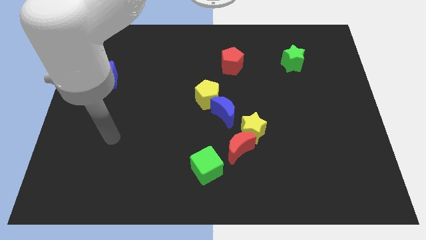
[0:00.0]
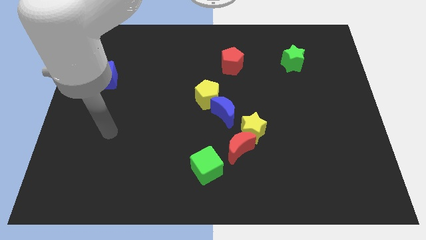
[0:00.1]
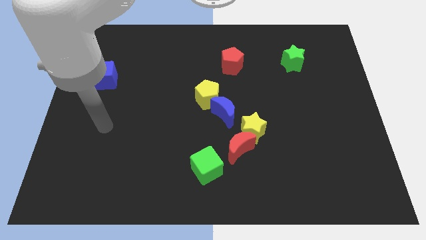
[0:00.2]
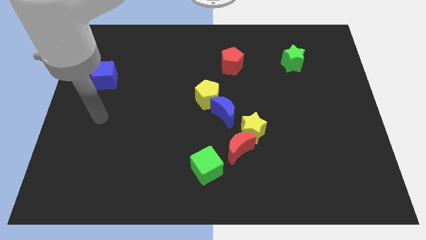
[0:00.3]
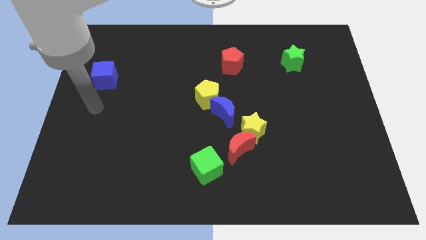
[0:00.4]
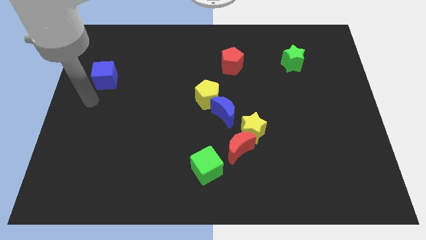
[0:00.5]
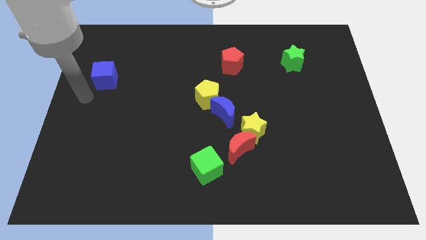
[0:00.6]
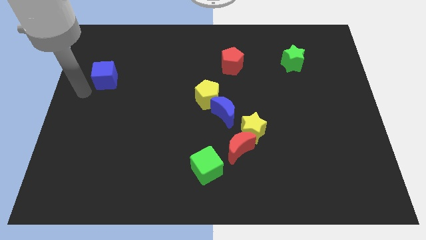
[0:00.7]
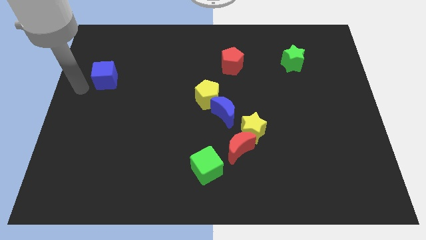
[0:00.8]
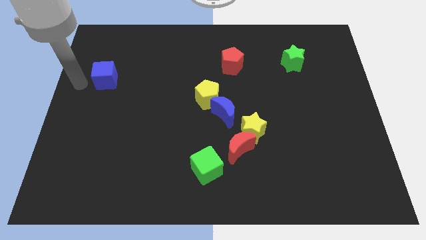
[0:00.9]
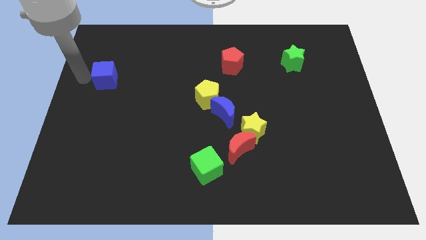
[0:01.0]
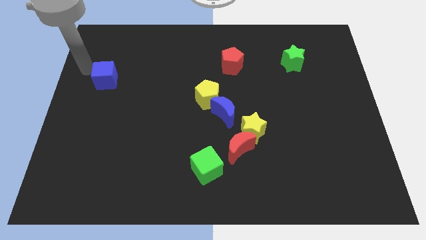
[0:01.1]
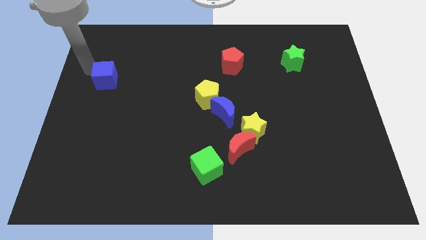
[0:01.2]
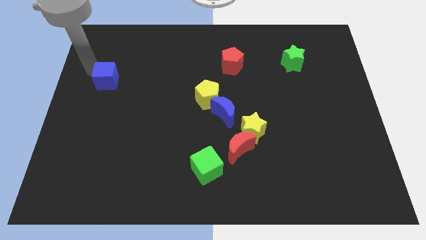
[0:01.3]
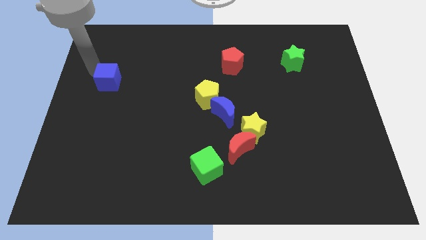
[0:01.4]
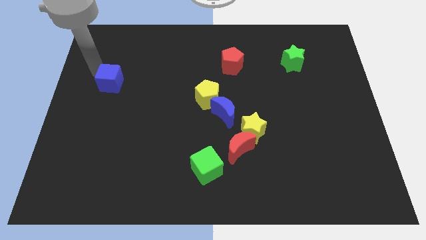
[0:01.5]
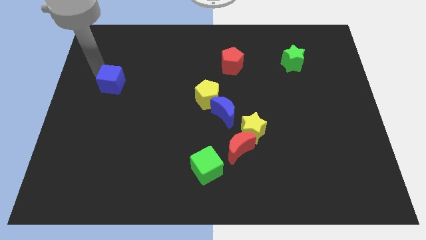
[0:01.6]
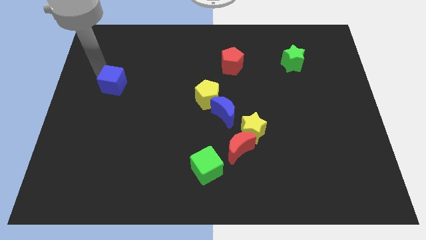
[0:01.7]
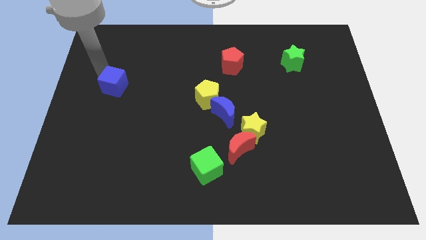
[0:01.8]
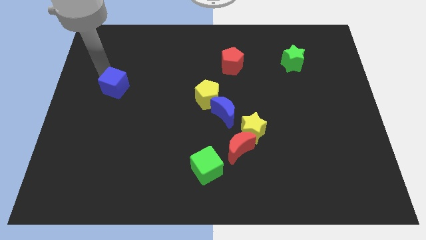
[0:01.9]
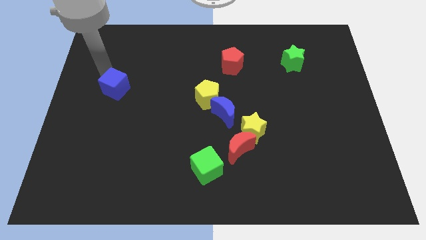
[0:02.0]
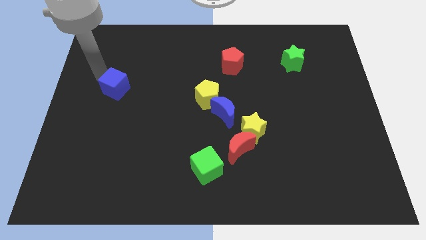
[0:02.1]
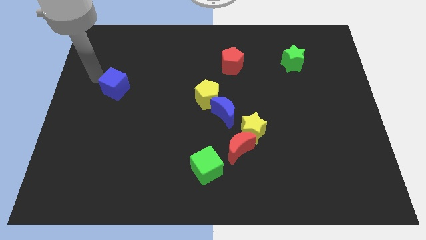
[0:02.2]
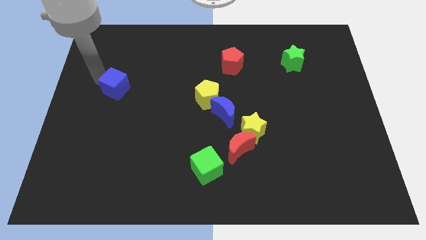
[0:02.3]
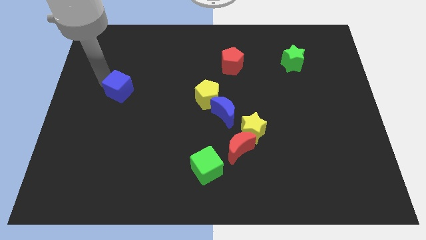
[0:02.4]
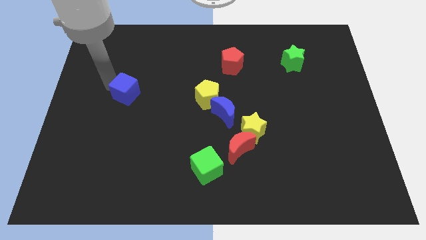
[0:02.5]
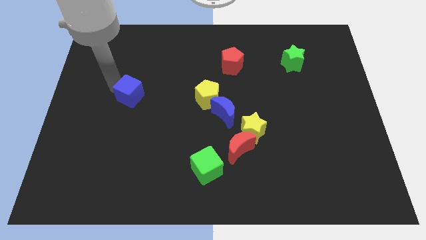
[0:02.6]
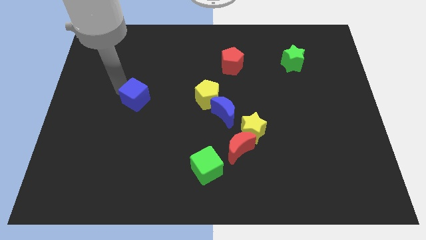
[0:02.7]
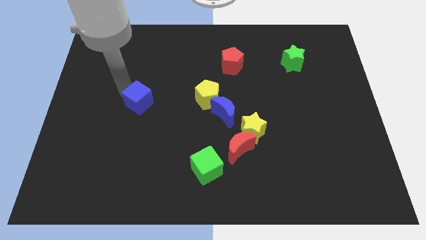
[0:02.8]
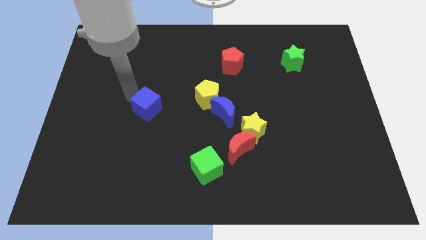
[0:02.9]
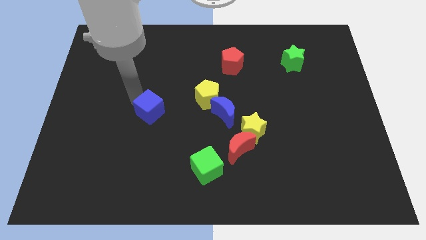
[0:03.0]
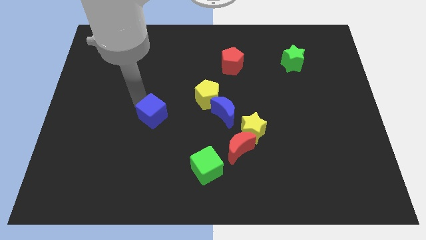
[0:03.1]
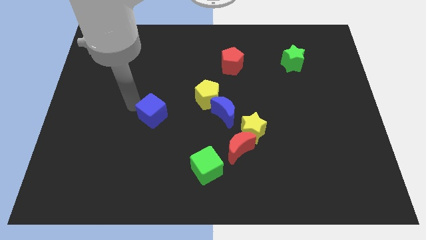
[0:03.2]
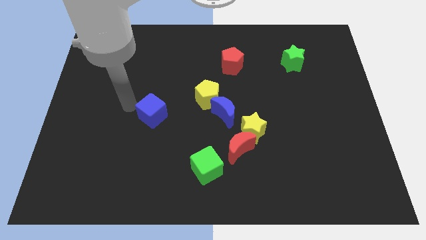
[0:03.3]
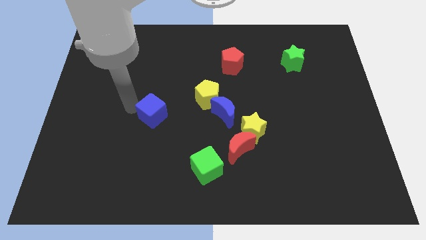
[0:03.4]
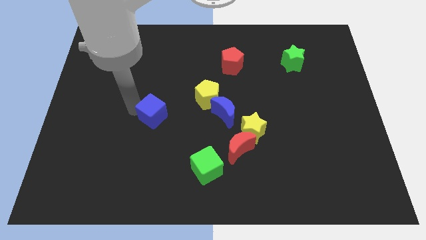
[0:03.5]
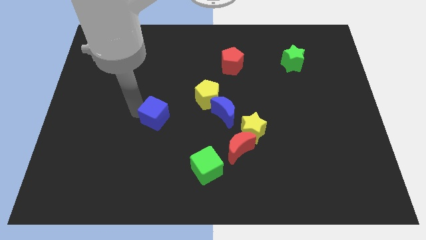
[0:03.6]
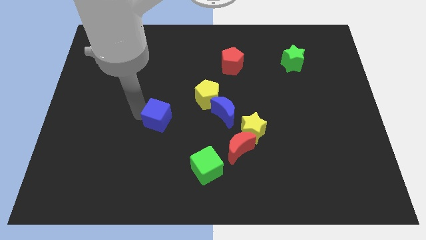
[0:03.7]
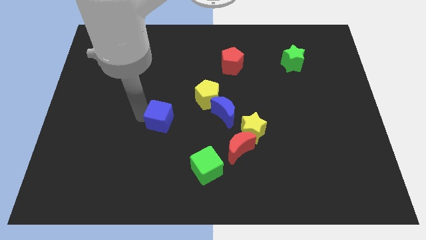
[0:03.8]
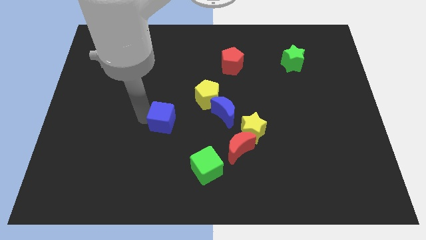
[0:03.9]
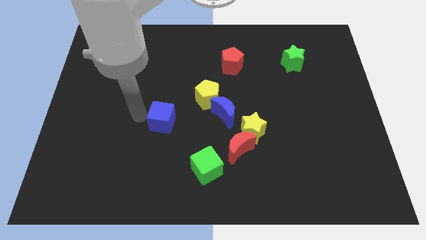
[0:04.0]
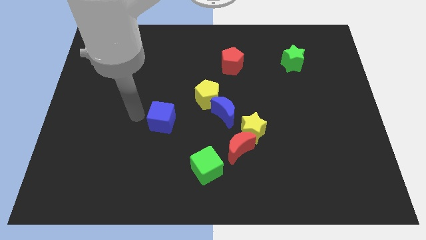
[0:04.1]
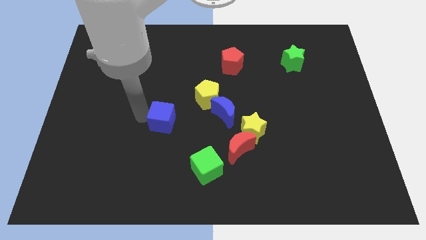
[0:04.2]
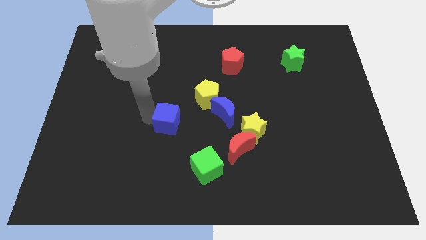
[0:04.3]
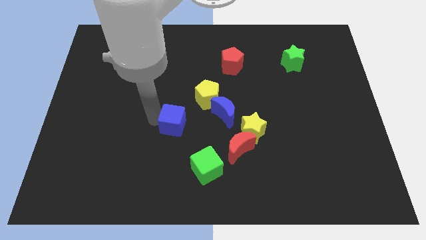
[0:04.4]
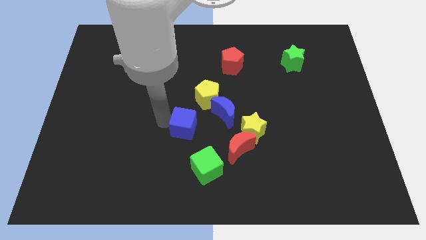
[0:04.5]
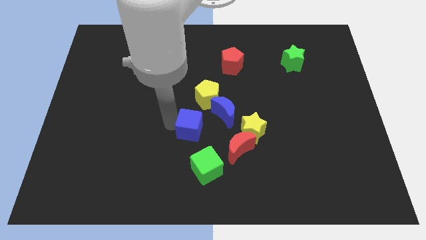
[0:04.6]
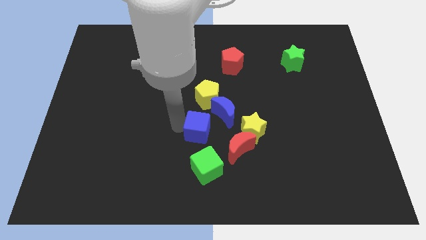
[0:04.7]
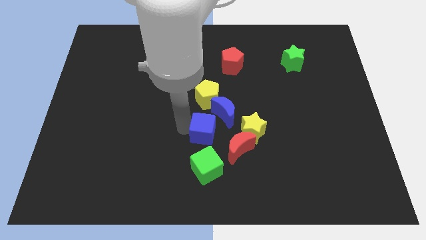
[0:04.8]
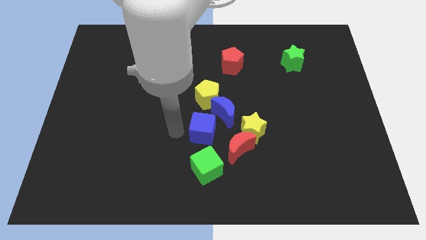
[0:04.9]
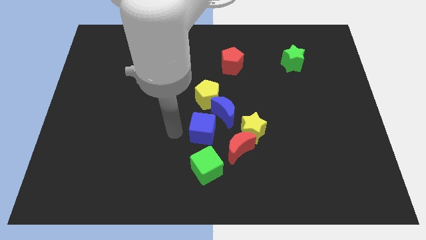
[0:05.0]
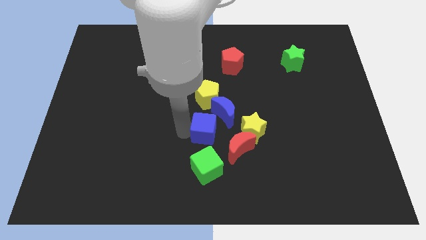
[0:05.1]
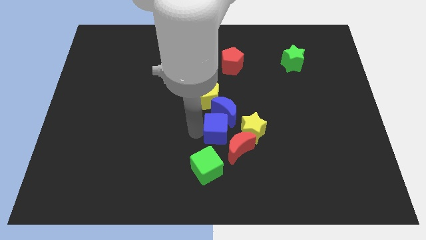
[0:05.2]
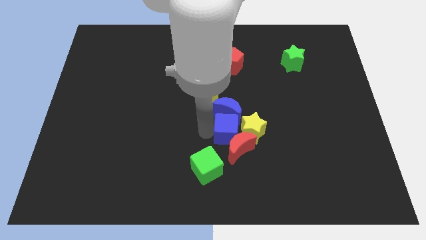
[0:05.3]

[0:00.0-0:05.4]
push the blue cube close to the yellow star

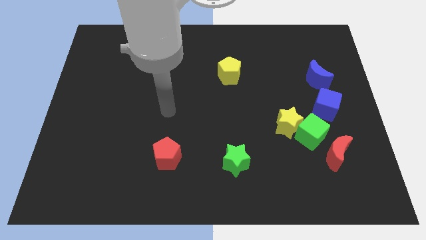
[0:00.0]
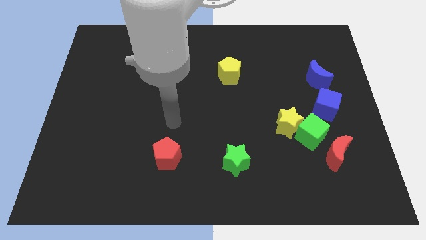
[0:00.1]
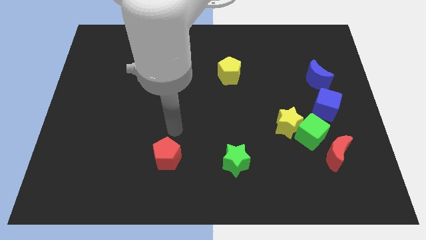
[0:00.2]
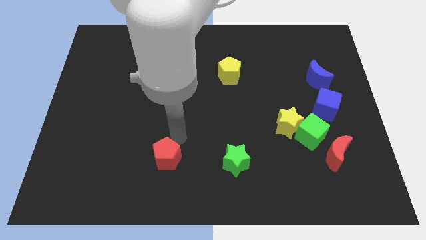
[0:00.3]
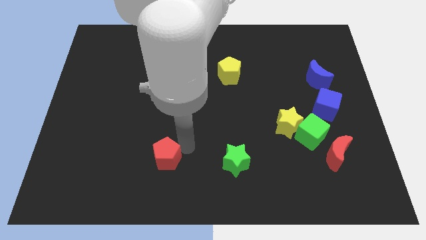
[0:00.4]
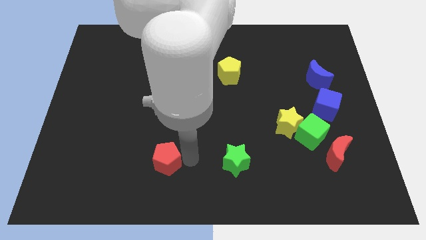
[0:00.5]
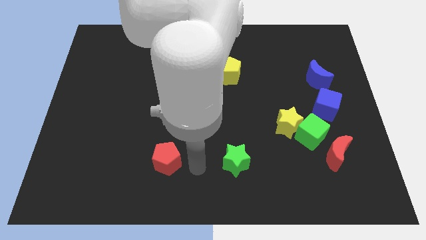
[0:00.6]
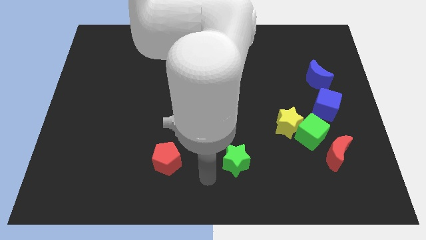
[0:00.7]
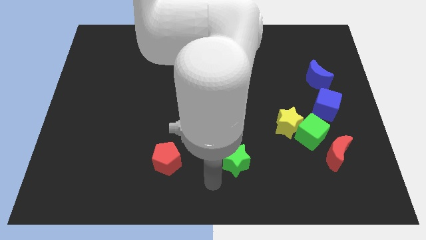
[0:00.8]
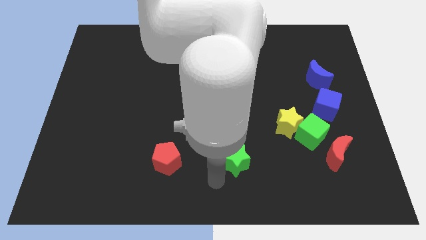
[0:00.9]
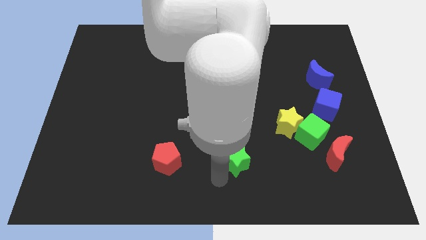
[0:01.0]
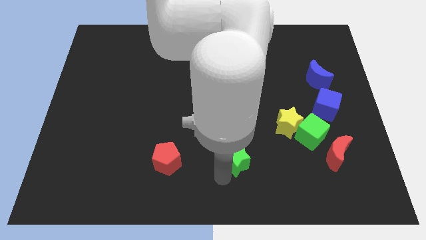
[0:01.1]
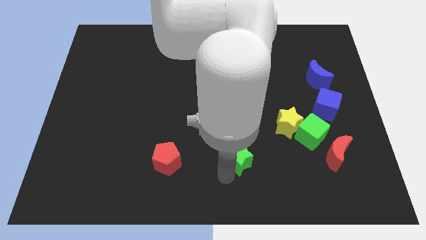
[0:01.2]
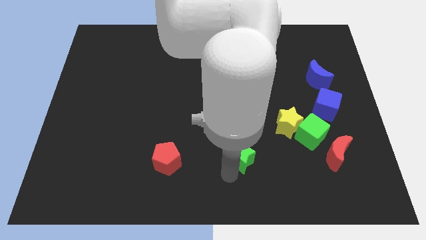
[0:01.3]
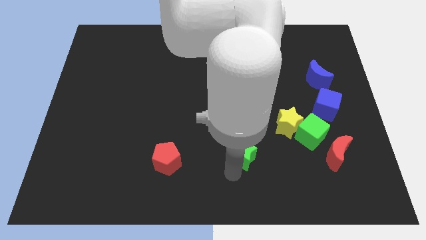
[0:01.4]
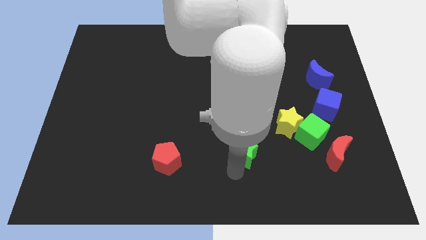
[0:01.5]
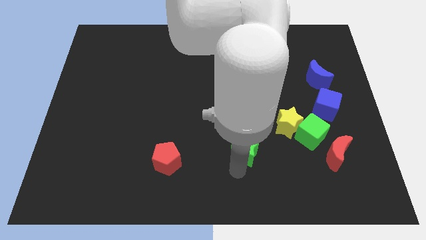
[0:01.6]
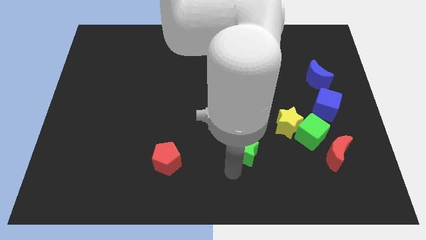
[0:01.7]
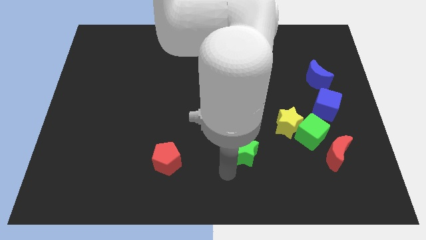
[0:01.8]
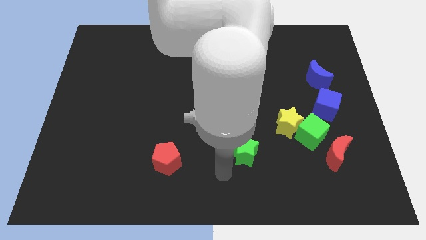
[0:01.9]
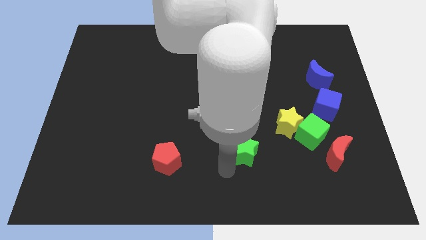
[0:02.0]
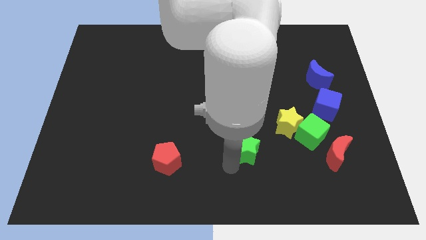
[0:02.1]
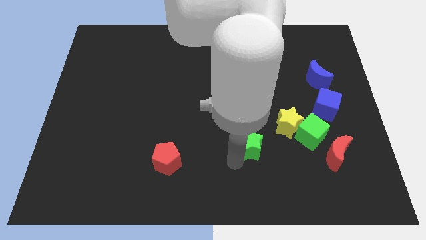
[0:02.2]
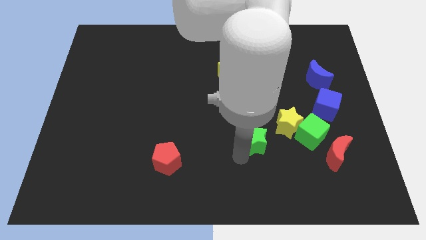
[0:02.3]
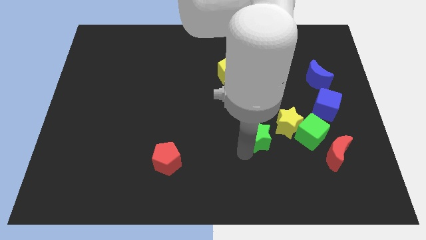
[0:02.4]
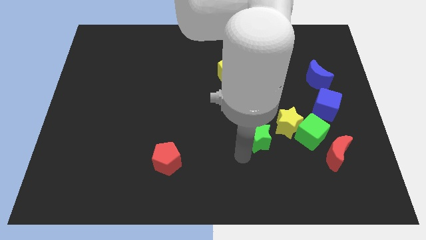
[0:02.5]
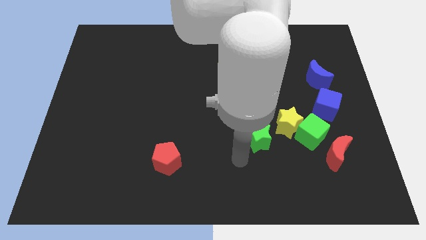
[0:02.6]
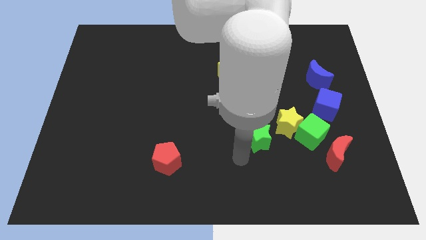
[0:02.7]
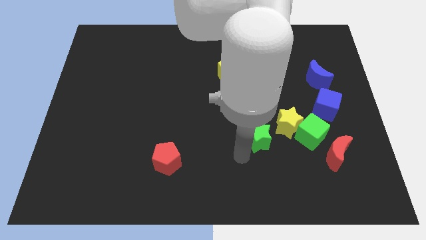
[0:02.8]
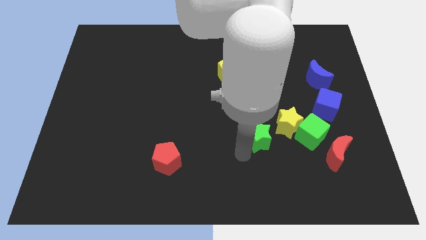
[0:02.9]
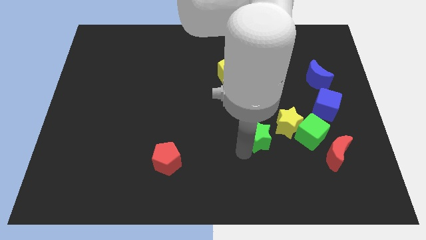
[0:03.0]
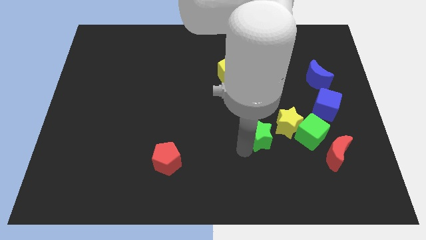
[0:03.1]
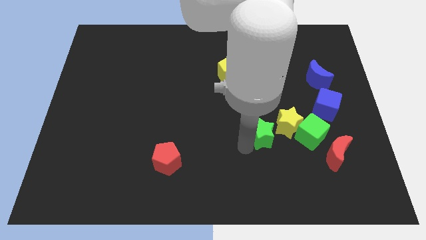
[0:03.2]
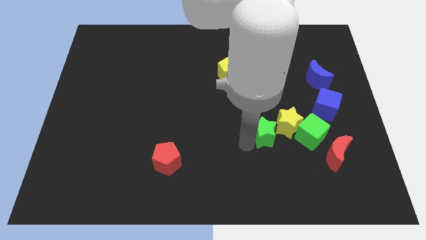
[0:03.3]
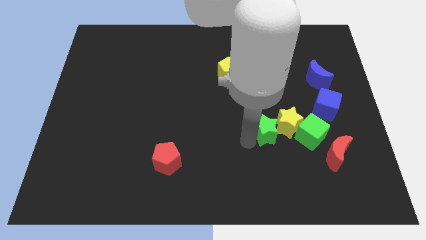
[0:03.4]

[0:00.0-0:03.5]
slide the green star to the yellow star
